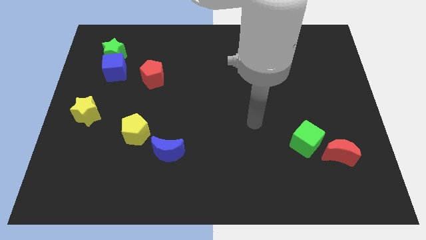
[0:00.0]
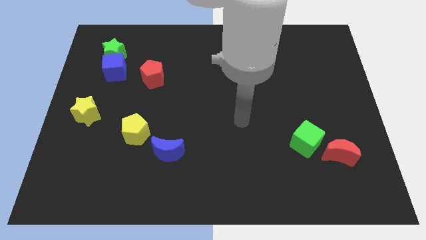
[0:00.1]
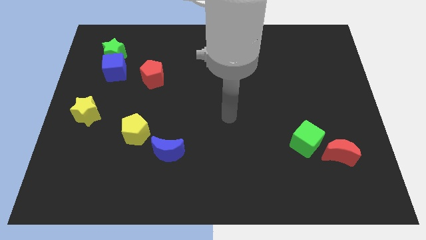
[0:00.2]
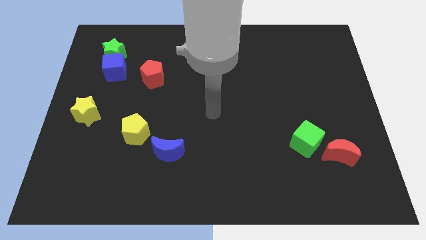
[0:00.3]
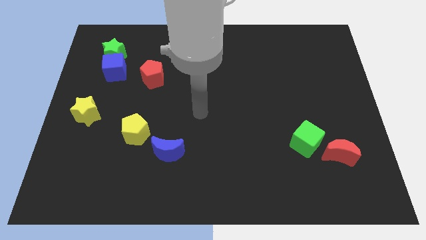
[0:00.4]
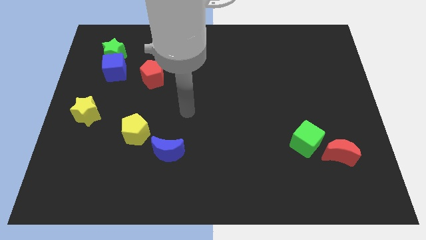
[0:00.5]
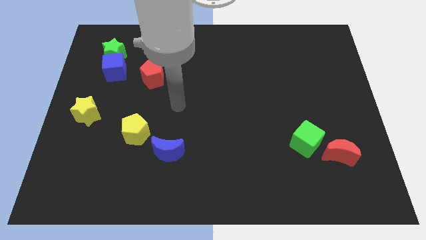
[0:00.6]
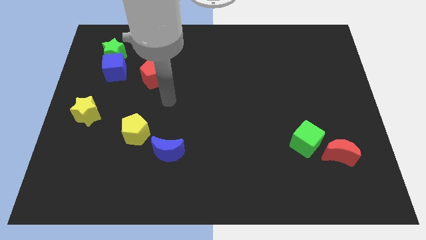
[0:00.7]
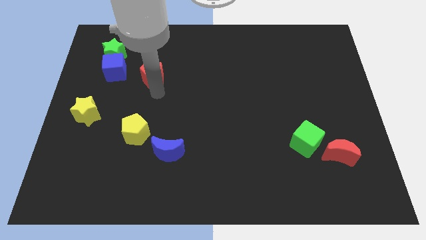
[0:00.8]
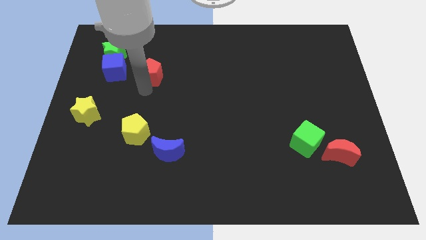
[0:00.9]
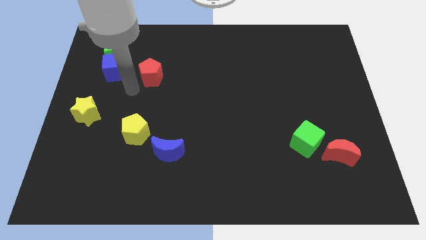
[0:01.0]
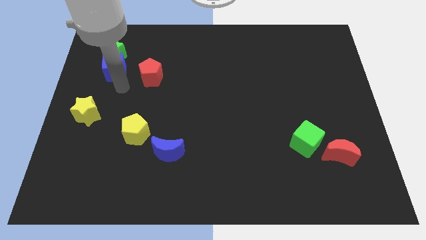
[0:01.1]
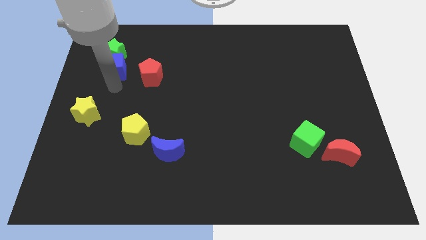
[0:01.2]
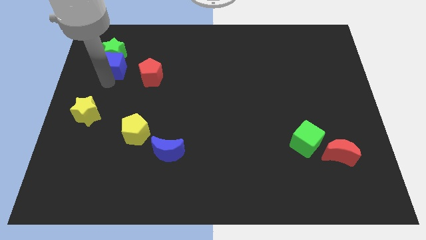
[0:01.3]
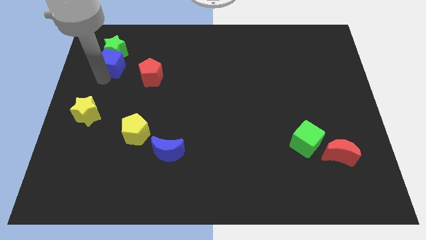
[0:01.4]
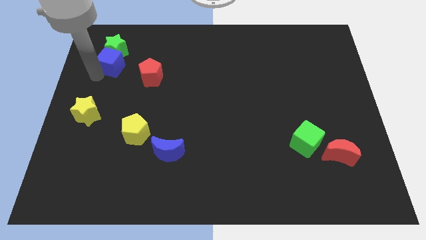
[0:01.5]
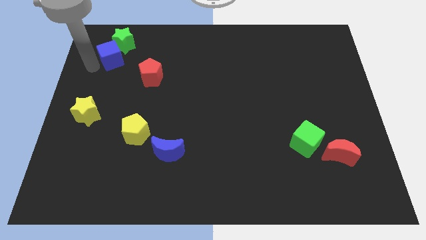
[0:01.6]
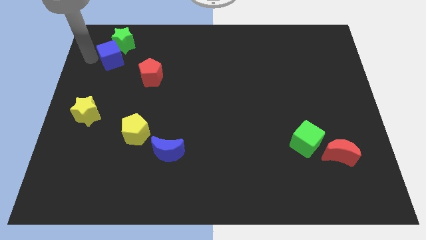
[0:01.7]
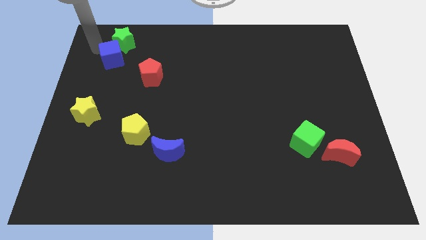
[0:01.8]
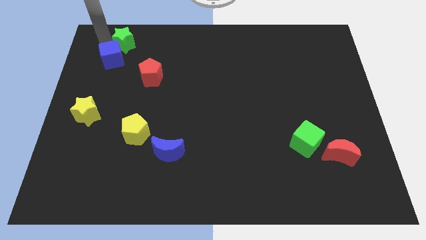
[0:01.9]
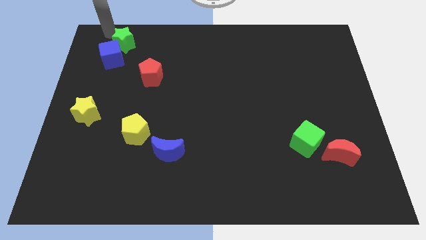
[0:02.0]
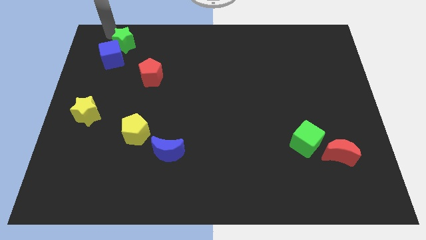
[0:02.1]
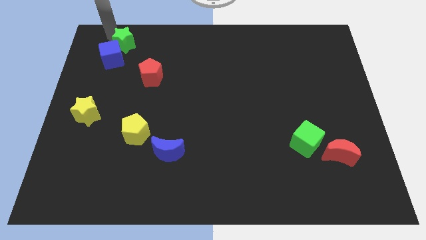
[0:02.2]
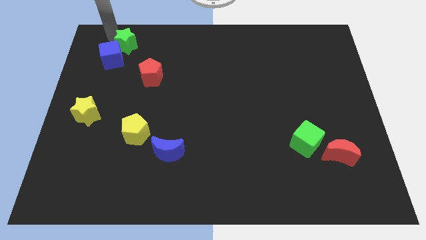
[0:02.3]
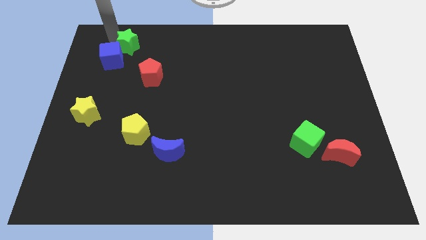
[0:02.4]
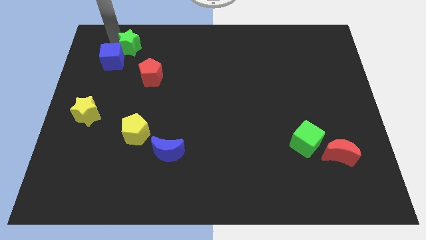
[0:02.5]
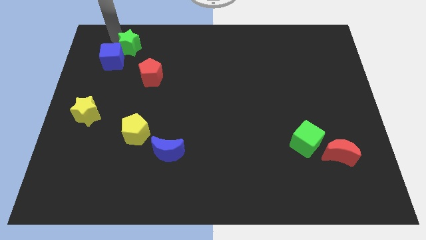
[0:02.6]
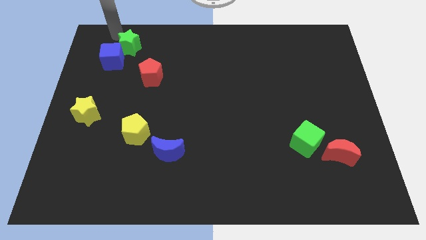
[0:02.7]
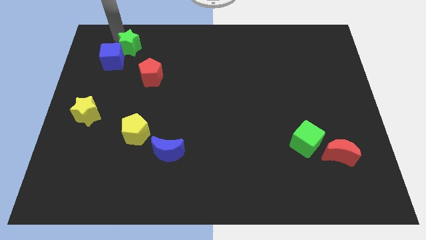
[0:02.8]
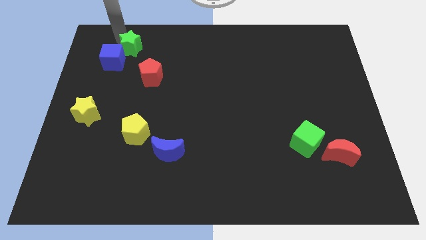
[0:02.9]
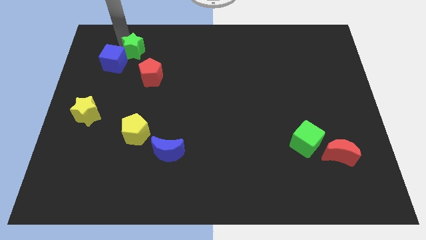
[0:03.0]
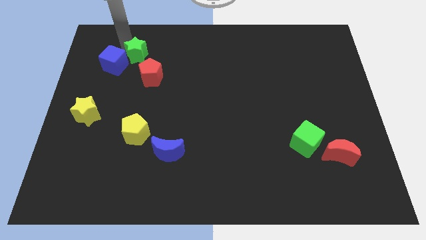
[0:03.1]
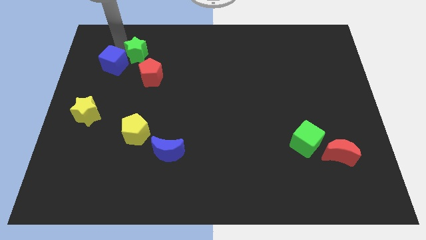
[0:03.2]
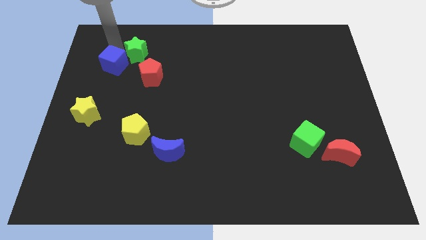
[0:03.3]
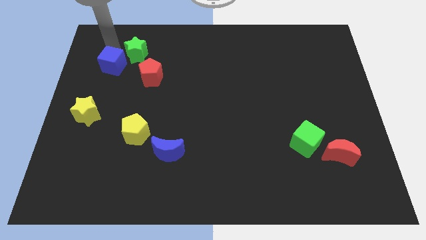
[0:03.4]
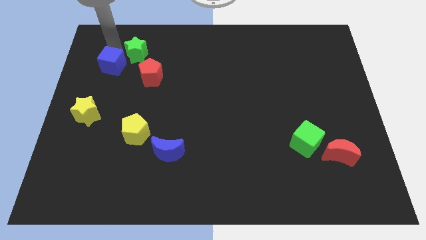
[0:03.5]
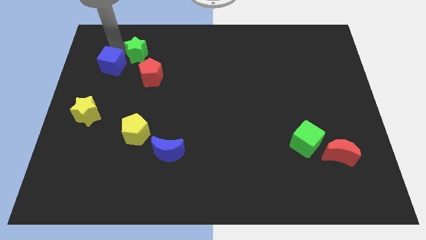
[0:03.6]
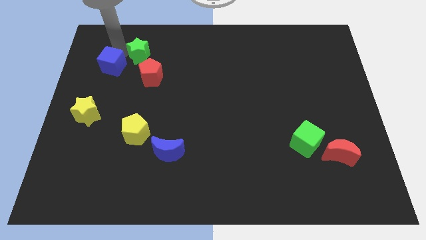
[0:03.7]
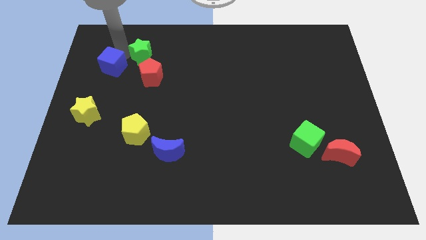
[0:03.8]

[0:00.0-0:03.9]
slightly slide the green star to the right

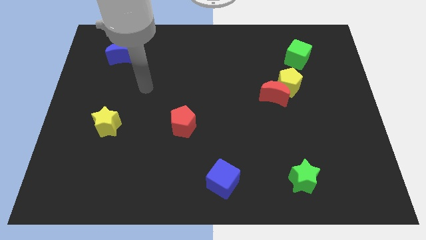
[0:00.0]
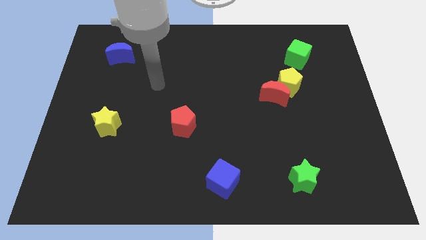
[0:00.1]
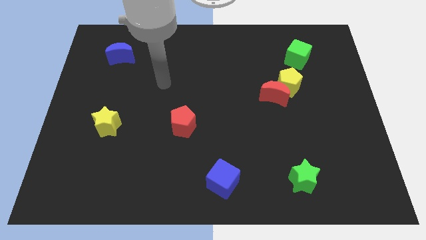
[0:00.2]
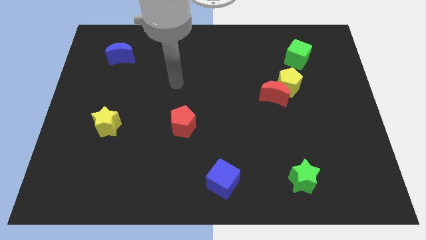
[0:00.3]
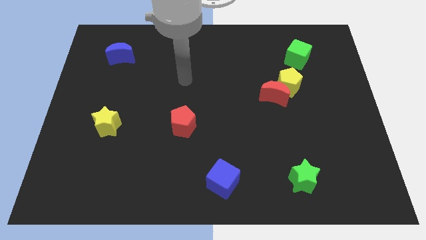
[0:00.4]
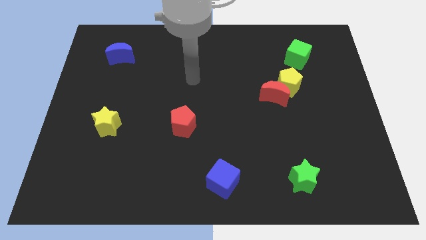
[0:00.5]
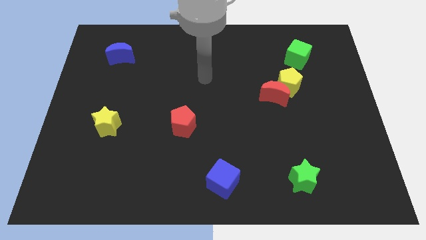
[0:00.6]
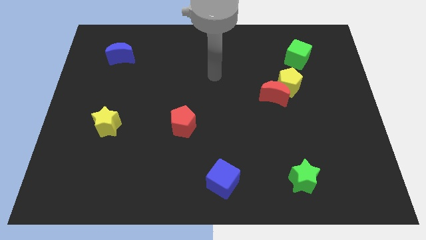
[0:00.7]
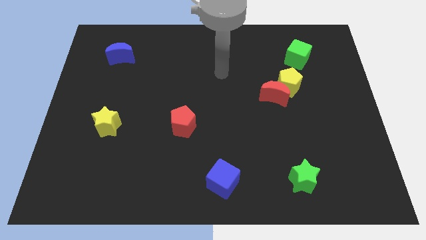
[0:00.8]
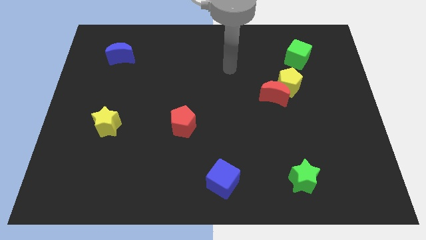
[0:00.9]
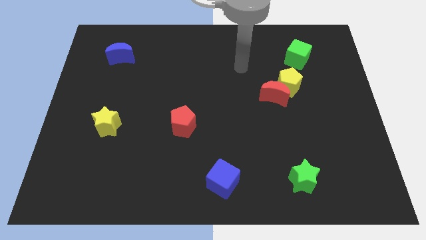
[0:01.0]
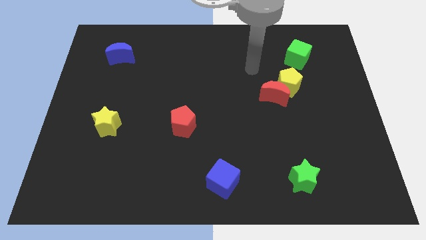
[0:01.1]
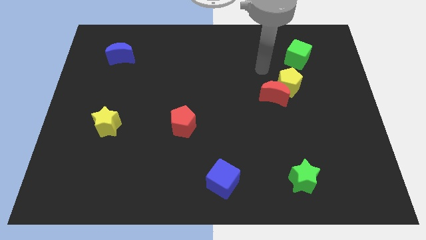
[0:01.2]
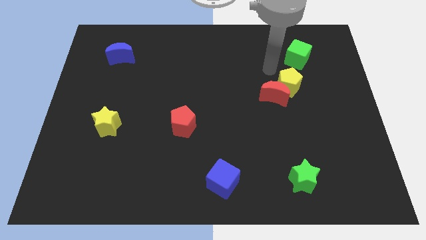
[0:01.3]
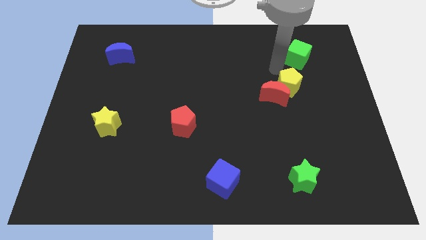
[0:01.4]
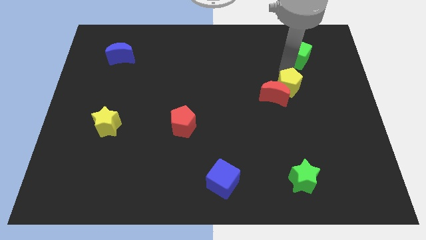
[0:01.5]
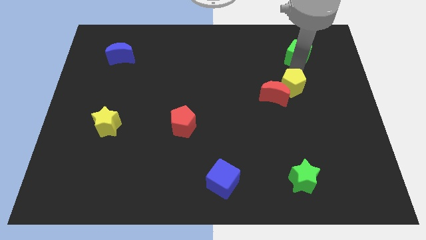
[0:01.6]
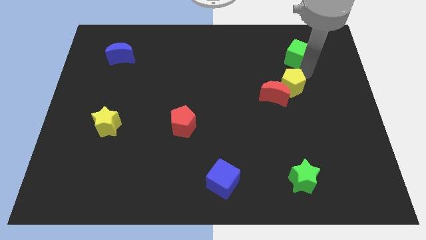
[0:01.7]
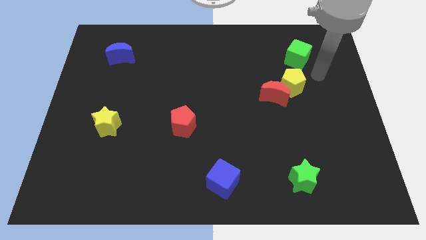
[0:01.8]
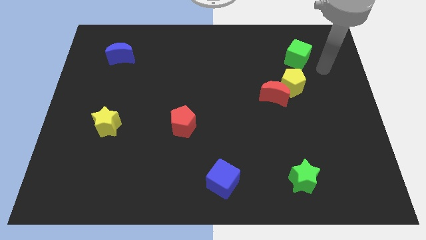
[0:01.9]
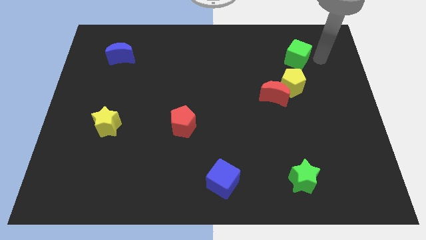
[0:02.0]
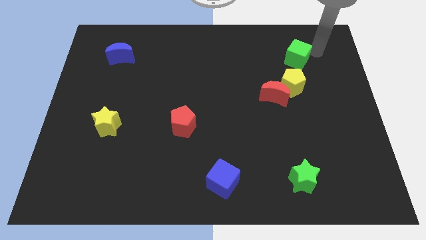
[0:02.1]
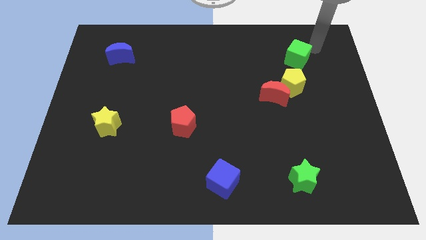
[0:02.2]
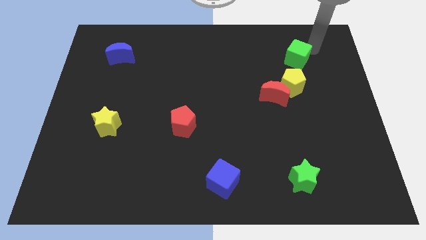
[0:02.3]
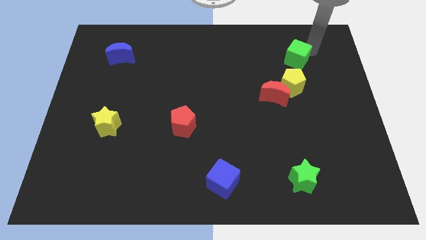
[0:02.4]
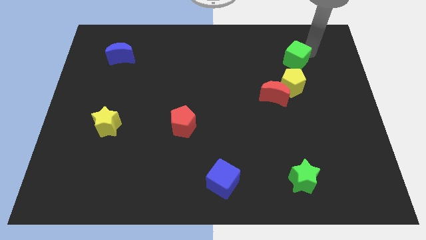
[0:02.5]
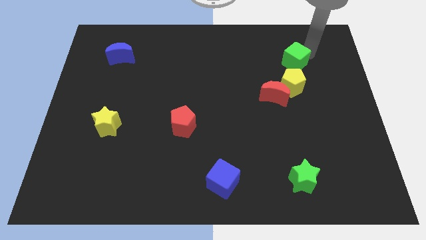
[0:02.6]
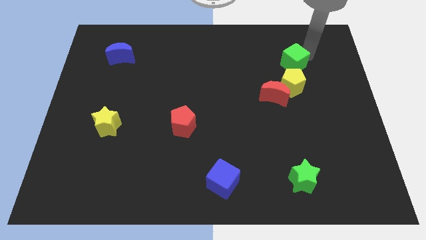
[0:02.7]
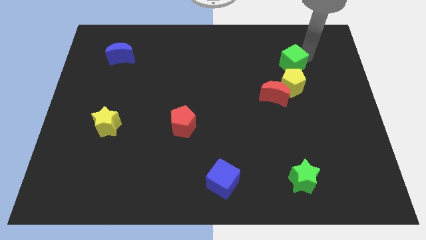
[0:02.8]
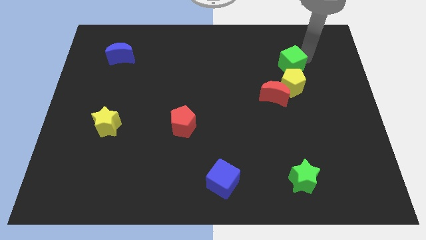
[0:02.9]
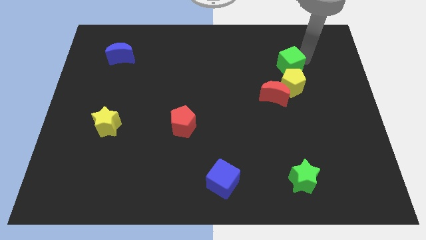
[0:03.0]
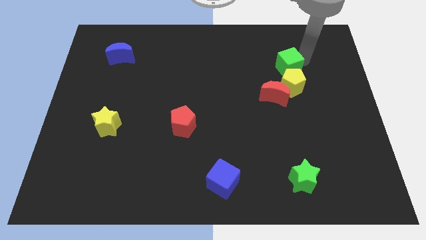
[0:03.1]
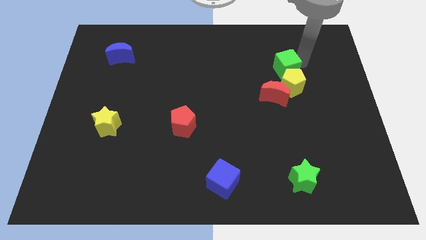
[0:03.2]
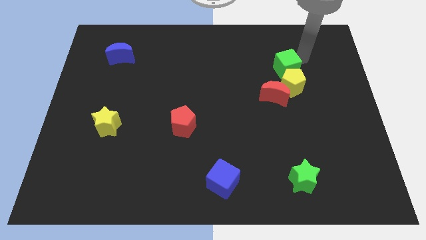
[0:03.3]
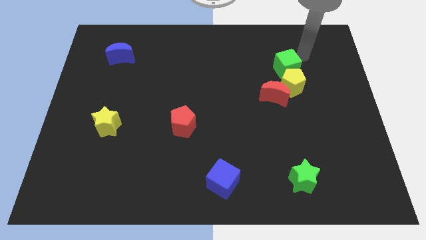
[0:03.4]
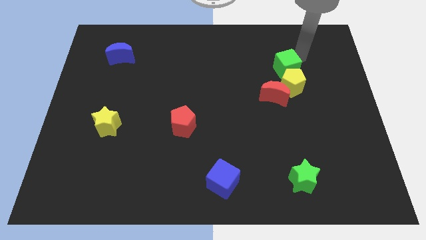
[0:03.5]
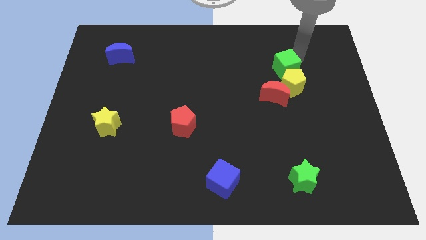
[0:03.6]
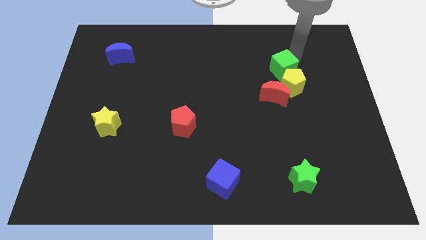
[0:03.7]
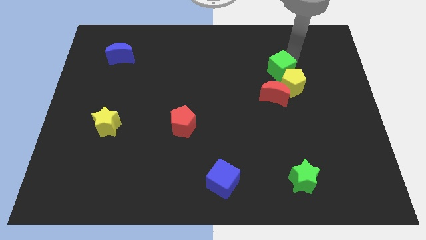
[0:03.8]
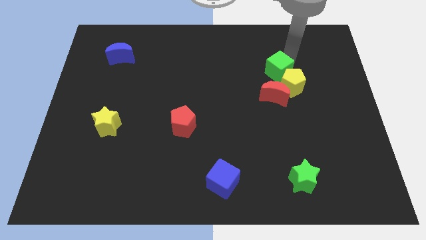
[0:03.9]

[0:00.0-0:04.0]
move the green cube downwards and left slightly
